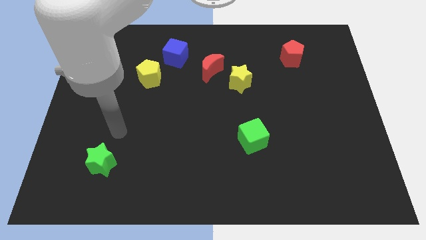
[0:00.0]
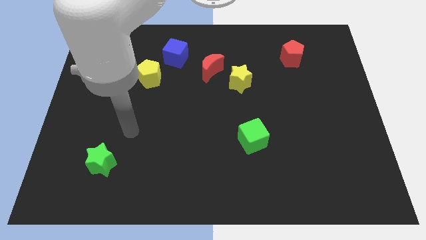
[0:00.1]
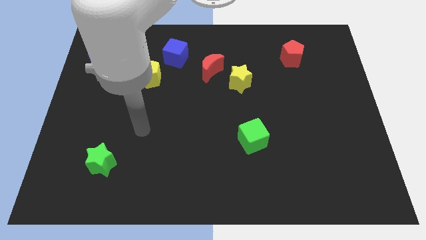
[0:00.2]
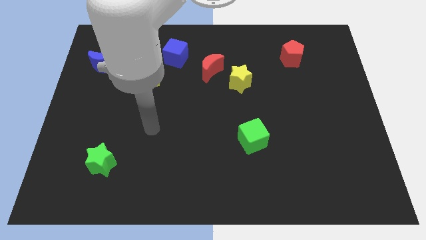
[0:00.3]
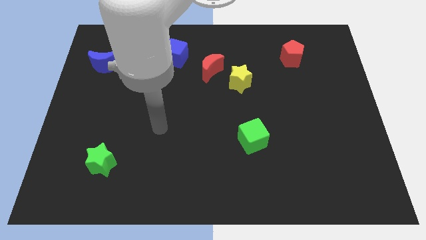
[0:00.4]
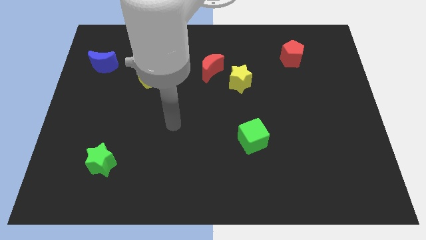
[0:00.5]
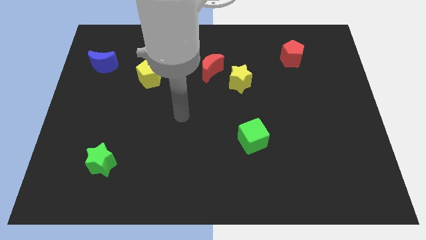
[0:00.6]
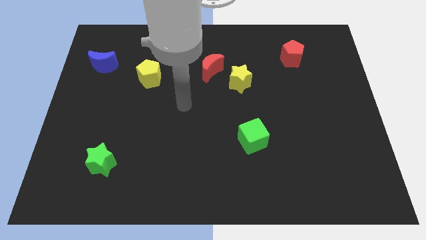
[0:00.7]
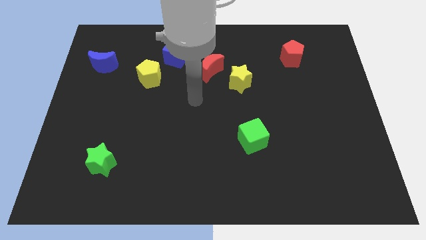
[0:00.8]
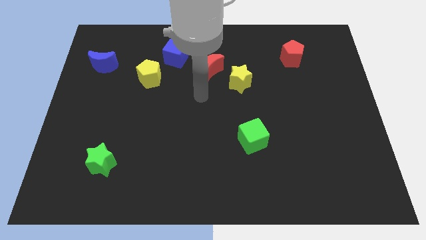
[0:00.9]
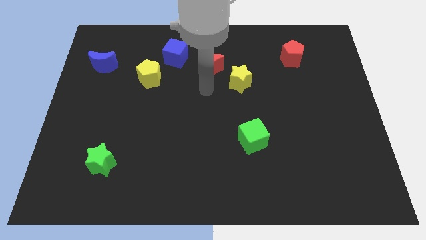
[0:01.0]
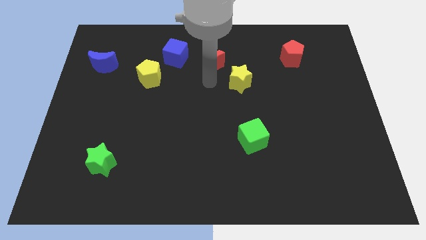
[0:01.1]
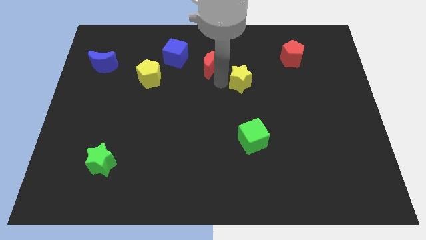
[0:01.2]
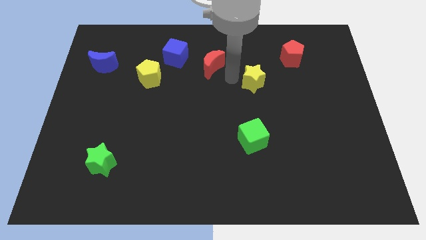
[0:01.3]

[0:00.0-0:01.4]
pull the red moon apart from the yellow star

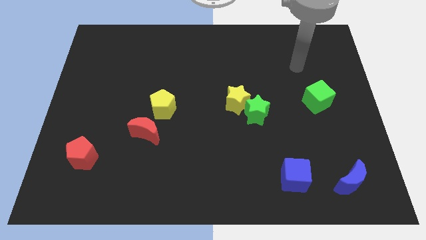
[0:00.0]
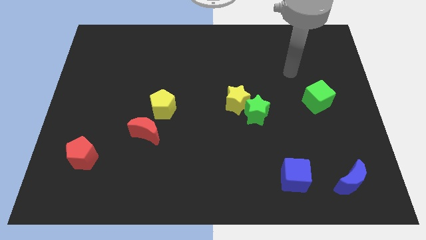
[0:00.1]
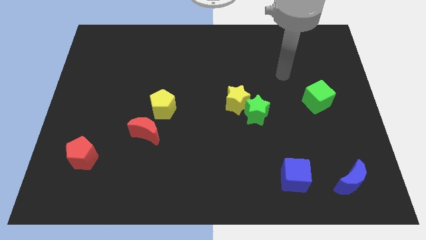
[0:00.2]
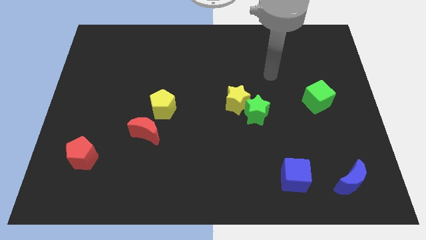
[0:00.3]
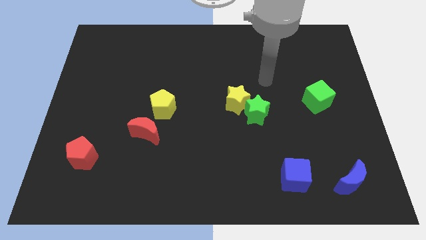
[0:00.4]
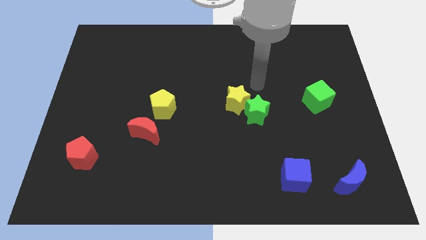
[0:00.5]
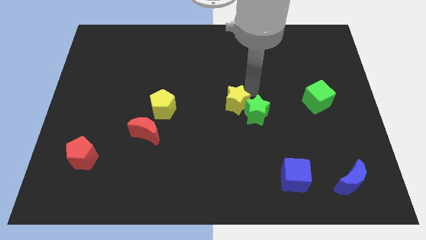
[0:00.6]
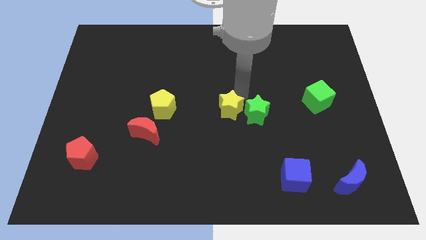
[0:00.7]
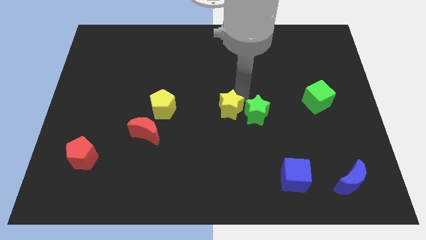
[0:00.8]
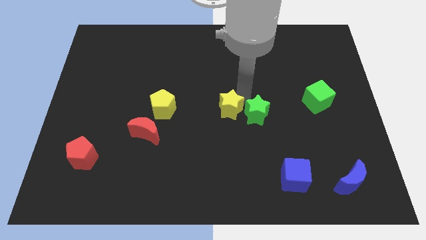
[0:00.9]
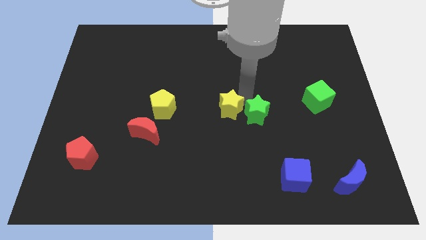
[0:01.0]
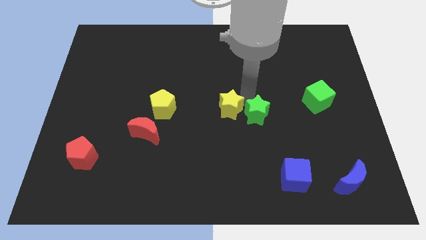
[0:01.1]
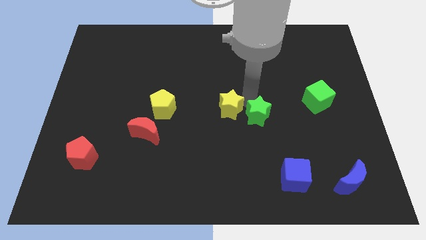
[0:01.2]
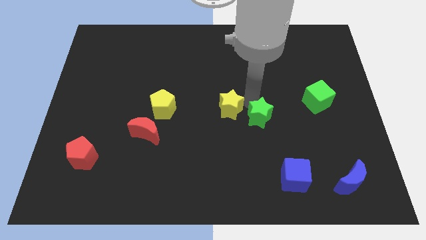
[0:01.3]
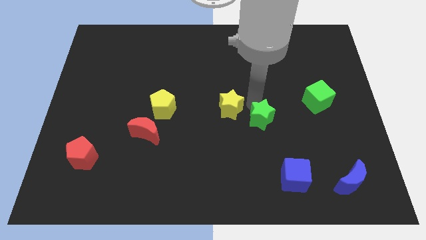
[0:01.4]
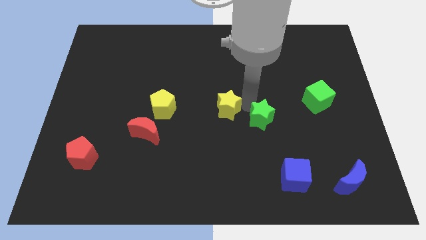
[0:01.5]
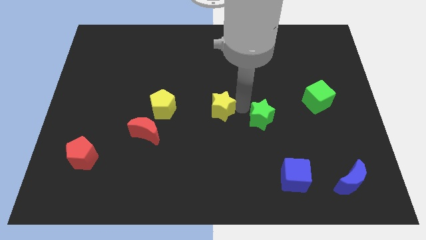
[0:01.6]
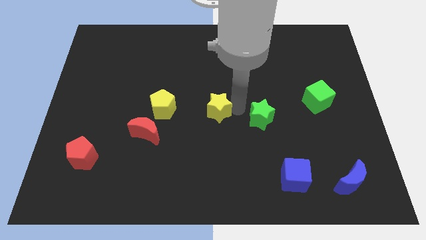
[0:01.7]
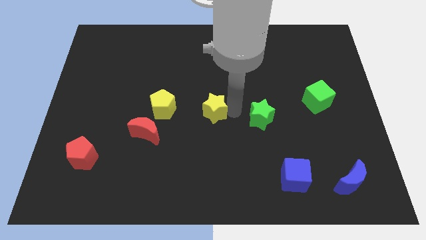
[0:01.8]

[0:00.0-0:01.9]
move the green star away from the yellow star

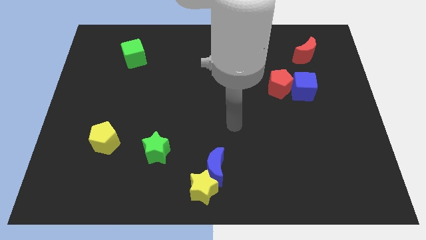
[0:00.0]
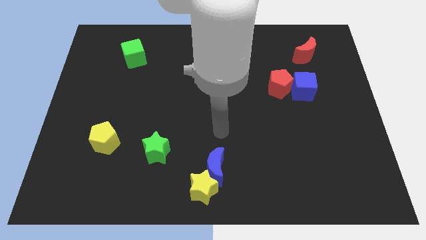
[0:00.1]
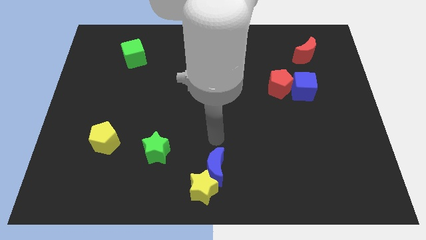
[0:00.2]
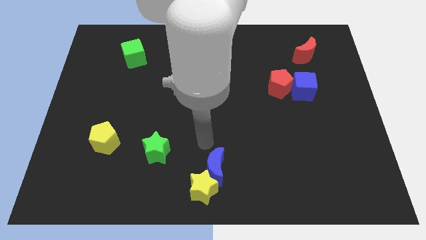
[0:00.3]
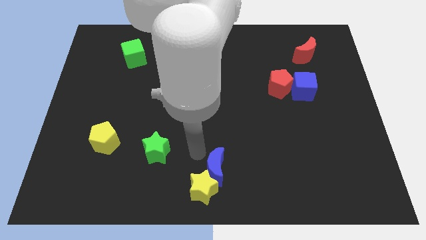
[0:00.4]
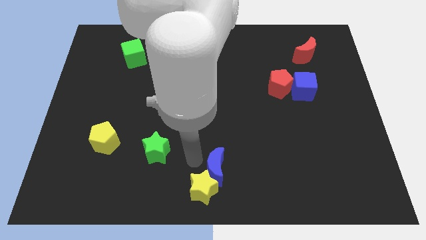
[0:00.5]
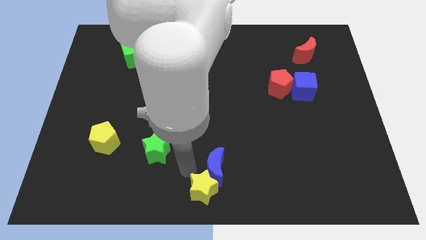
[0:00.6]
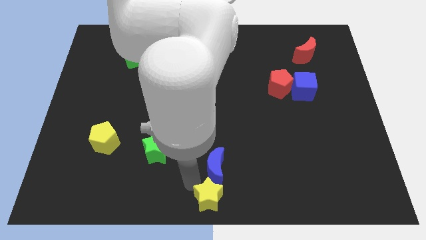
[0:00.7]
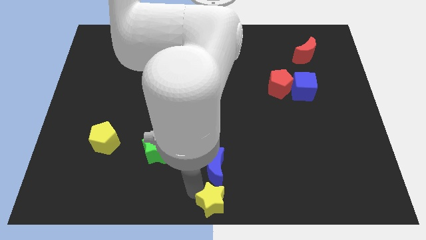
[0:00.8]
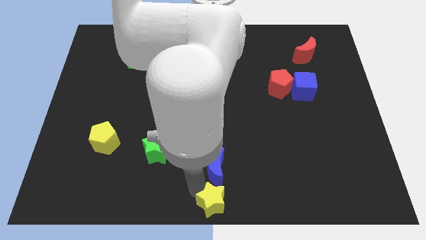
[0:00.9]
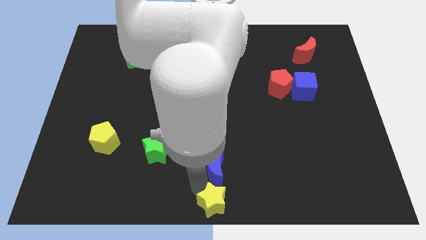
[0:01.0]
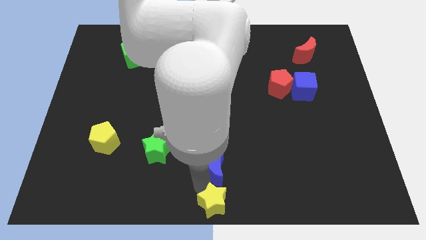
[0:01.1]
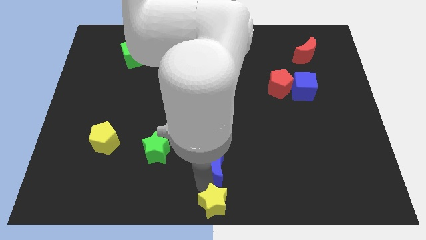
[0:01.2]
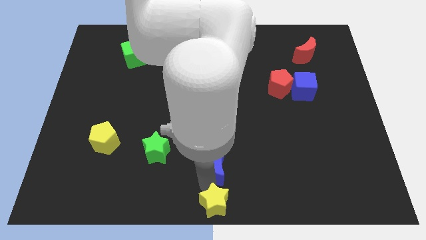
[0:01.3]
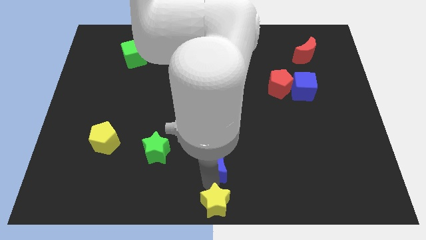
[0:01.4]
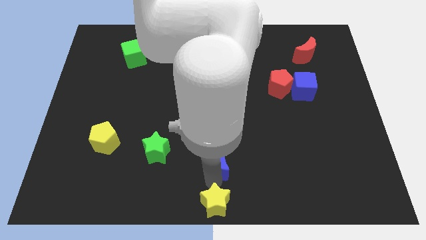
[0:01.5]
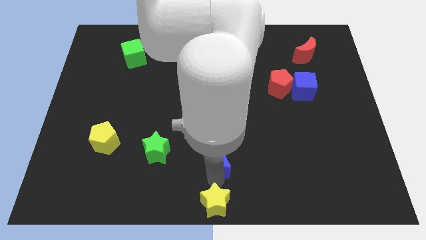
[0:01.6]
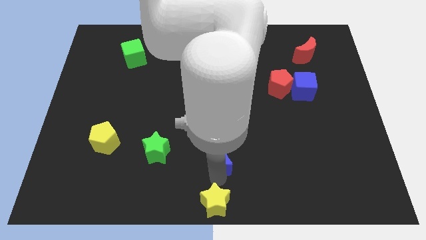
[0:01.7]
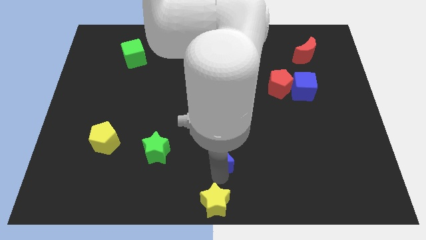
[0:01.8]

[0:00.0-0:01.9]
separate the blue moon from the yellow star

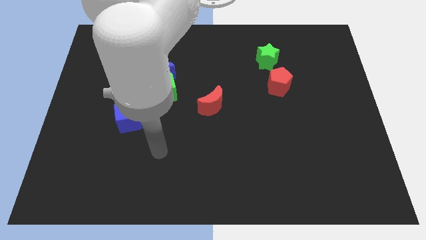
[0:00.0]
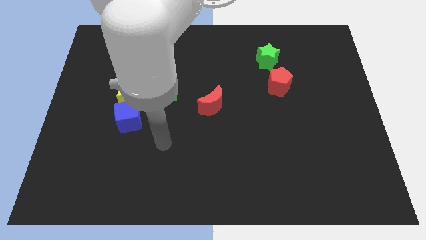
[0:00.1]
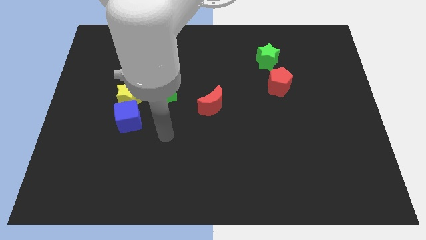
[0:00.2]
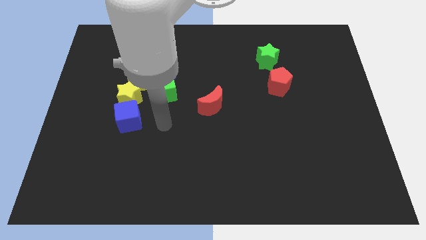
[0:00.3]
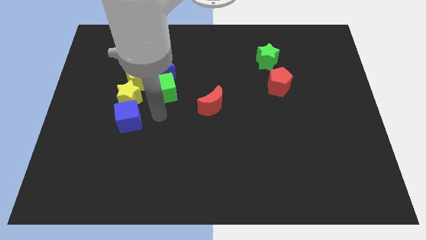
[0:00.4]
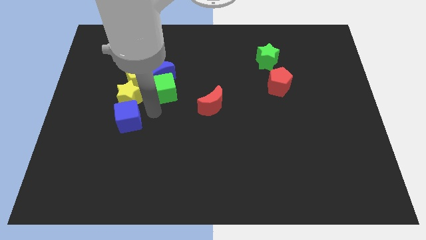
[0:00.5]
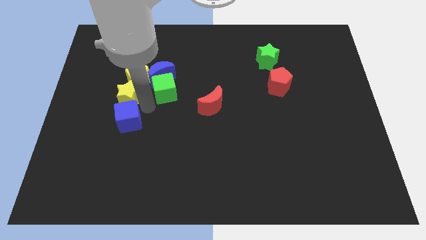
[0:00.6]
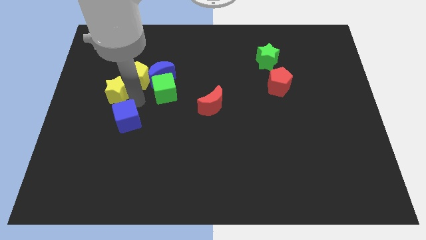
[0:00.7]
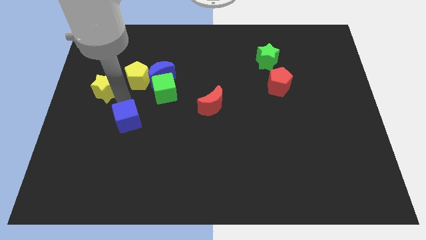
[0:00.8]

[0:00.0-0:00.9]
move the blue cube away from the yellow star

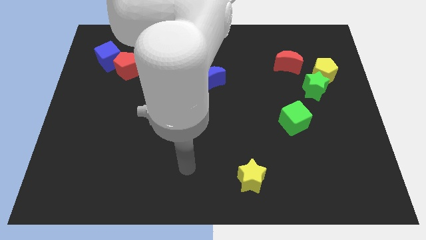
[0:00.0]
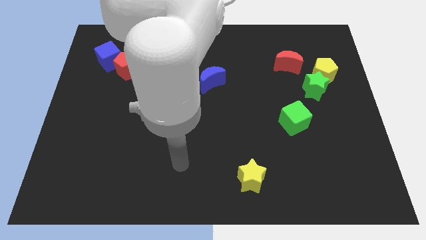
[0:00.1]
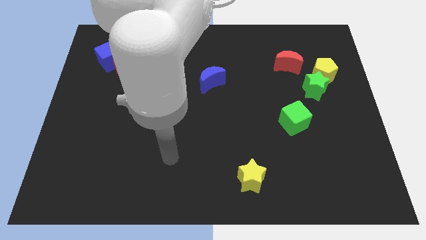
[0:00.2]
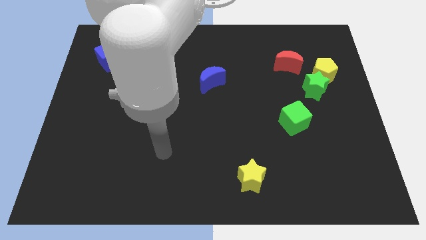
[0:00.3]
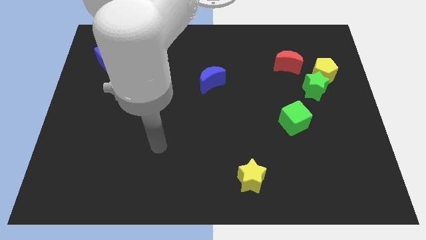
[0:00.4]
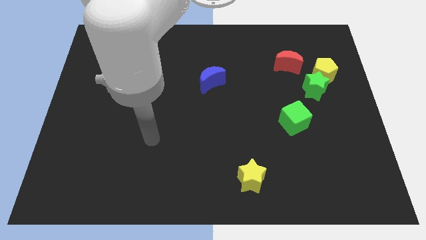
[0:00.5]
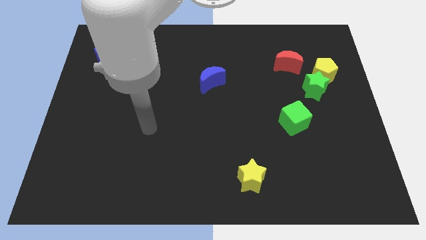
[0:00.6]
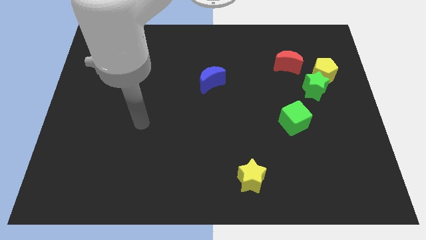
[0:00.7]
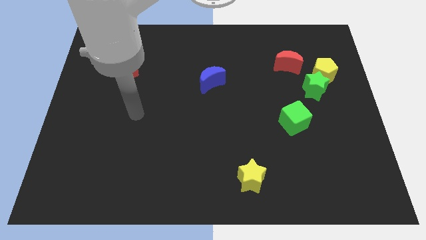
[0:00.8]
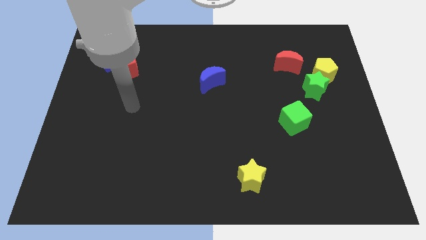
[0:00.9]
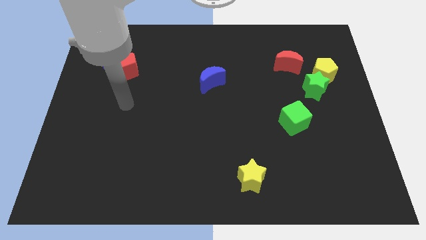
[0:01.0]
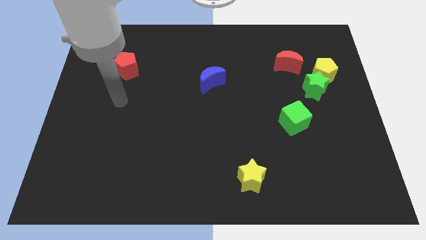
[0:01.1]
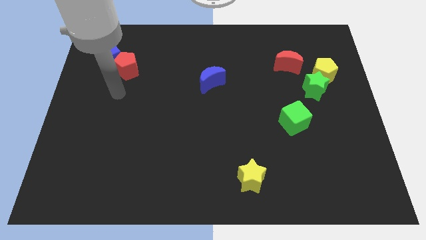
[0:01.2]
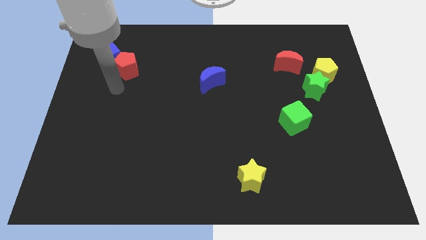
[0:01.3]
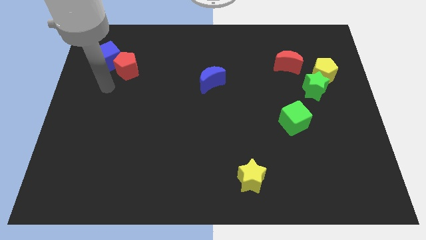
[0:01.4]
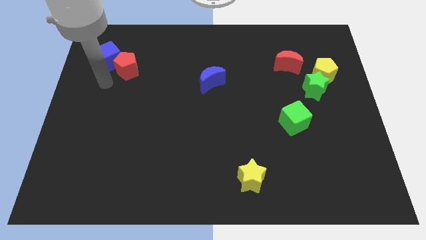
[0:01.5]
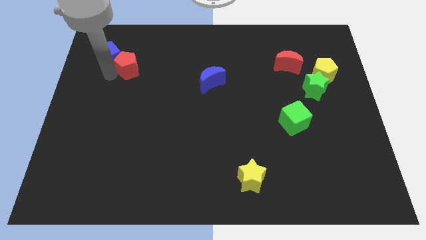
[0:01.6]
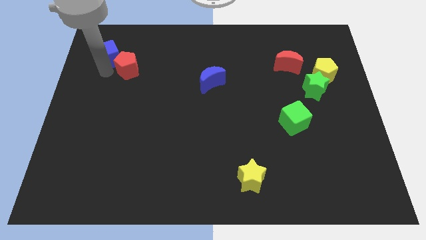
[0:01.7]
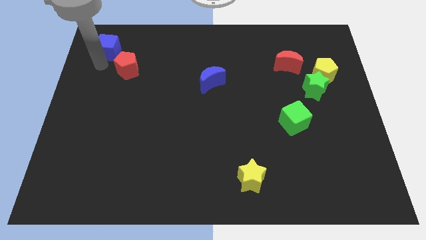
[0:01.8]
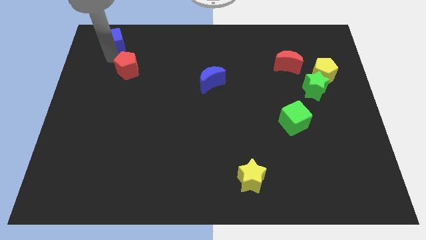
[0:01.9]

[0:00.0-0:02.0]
separate the red pentagon from the blue cube

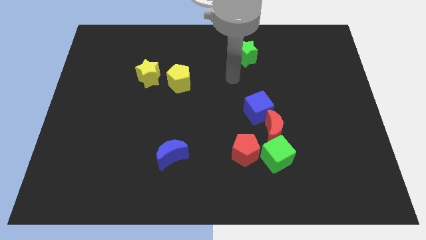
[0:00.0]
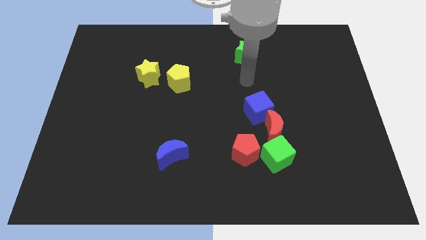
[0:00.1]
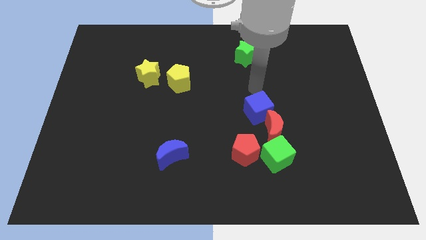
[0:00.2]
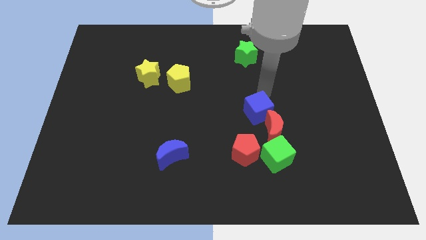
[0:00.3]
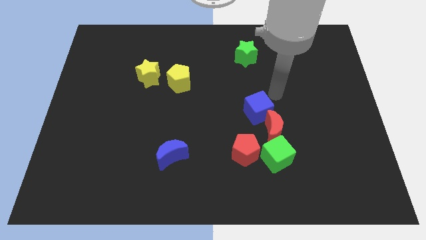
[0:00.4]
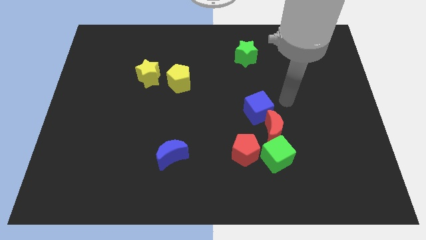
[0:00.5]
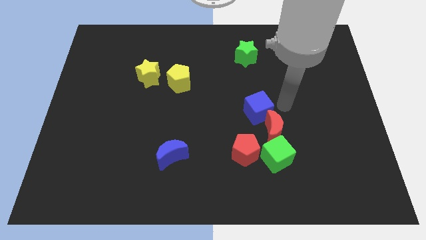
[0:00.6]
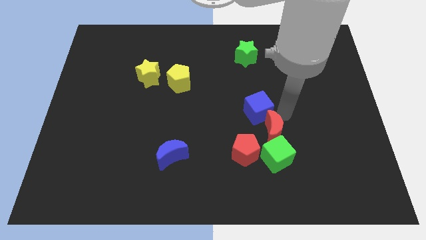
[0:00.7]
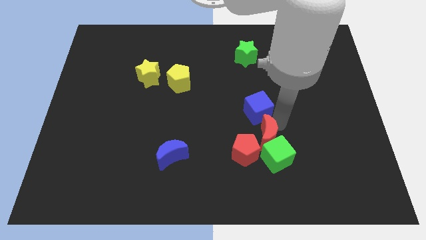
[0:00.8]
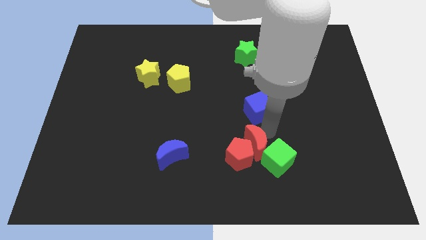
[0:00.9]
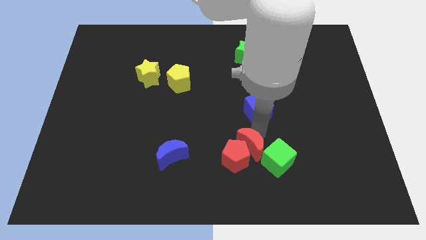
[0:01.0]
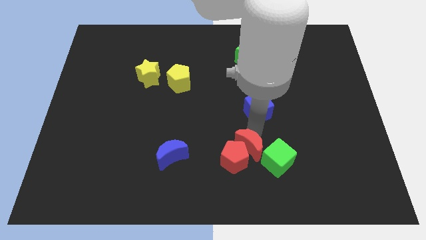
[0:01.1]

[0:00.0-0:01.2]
pull the blue cube apart from the red moon
